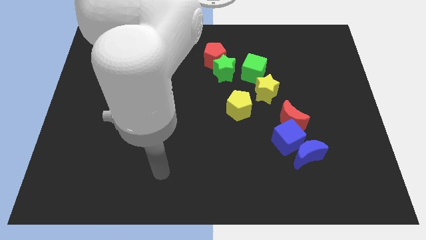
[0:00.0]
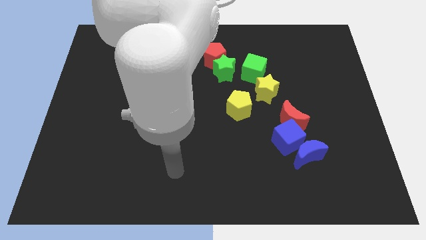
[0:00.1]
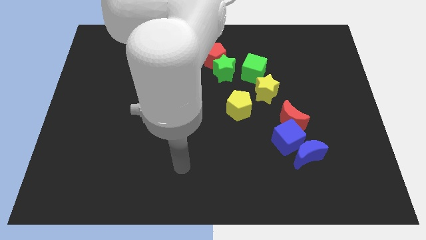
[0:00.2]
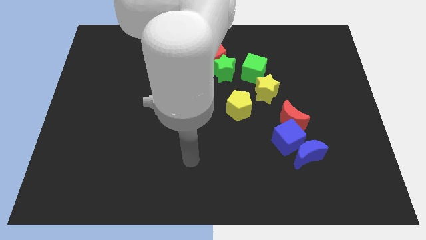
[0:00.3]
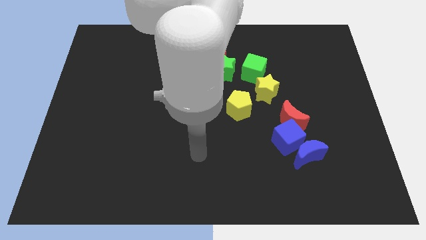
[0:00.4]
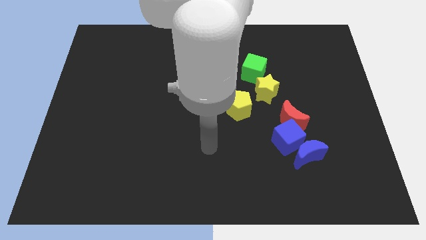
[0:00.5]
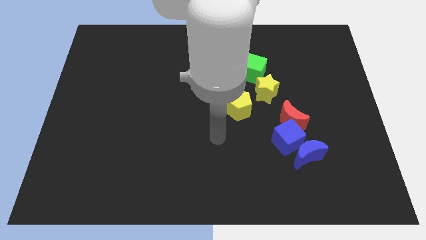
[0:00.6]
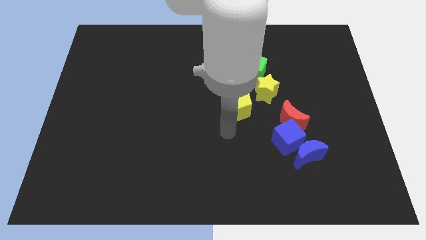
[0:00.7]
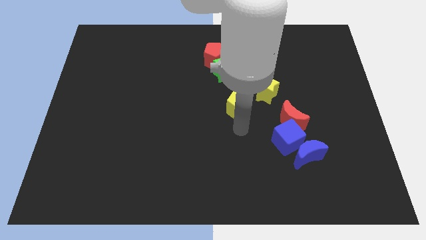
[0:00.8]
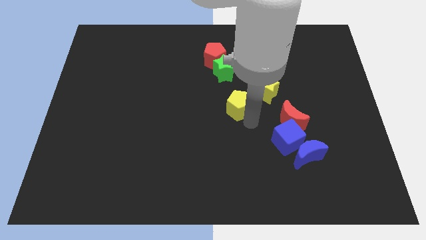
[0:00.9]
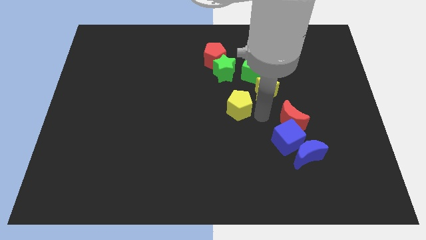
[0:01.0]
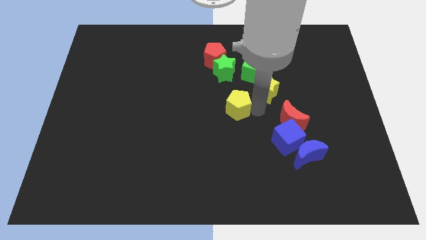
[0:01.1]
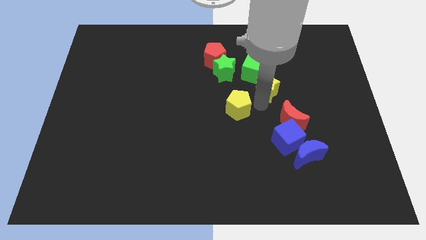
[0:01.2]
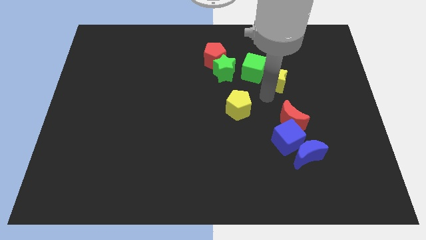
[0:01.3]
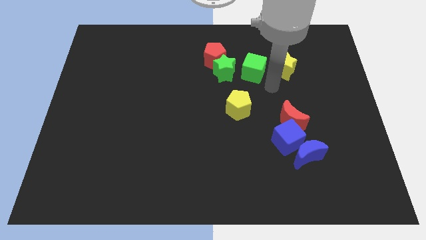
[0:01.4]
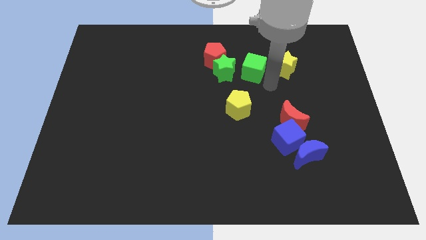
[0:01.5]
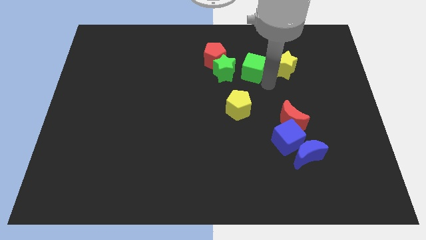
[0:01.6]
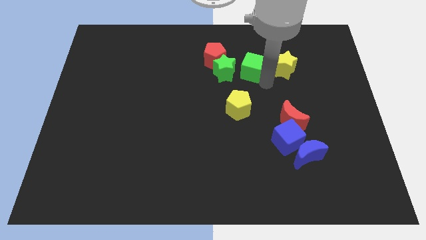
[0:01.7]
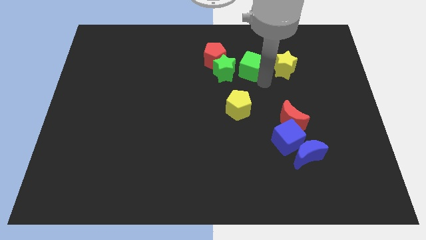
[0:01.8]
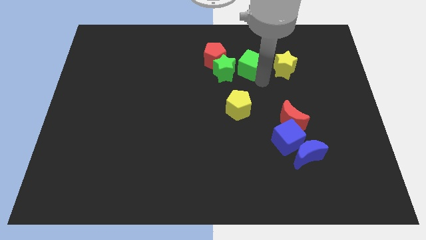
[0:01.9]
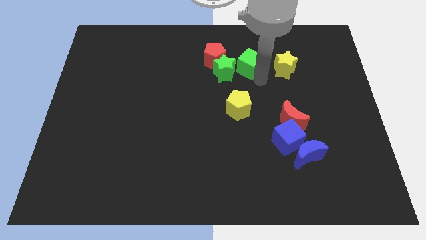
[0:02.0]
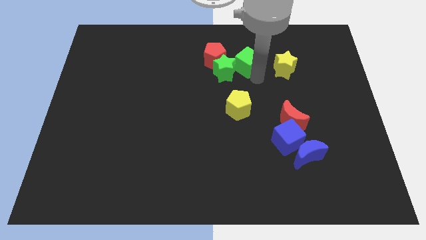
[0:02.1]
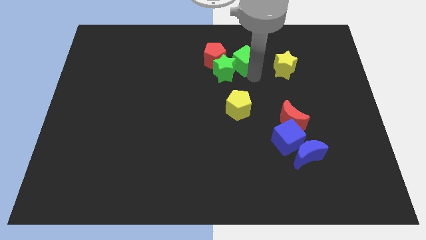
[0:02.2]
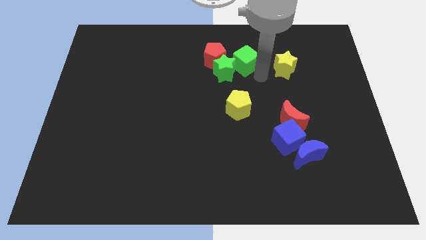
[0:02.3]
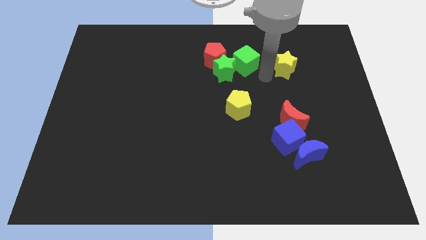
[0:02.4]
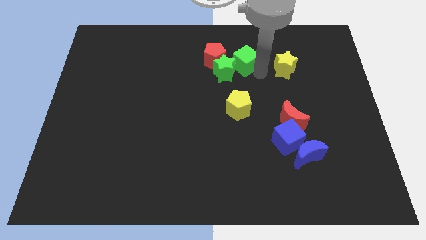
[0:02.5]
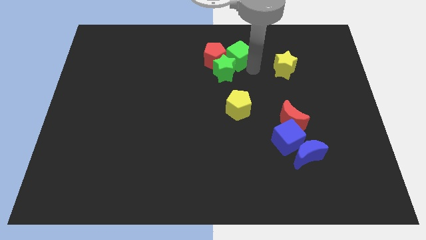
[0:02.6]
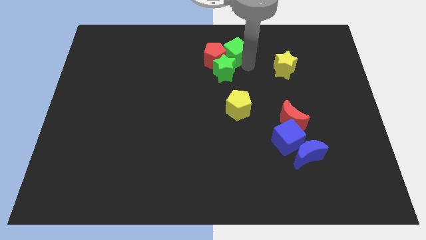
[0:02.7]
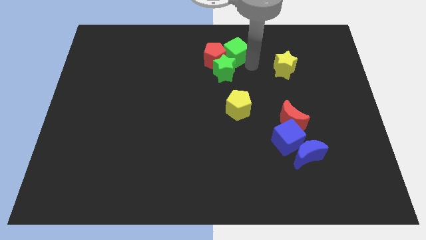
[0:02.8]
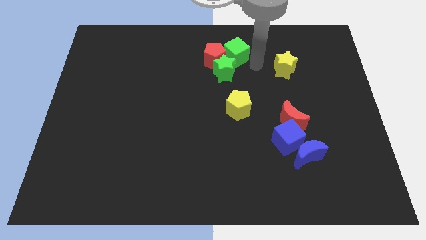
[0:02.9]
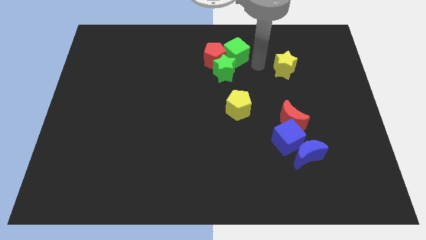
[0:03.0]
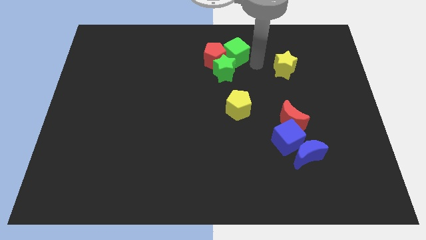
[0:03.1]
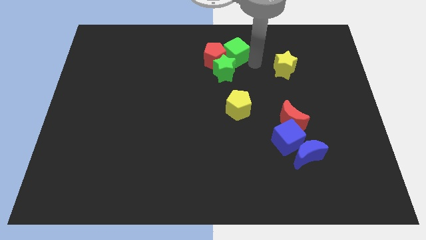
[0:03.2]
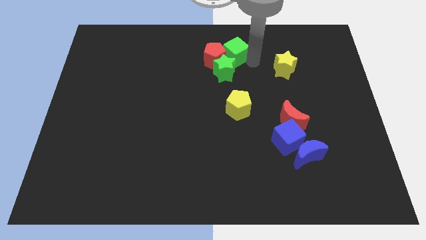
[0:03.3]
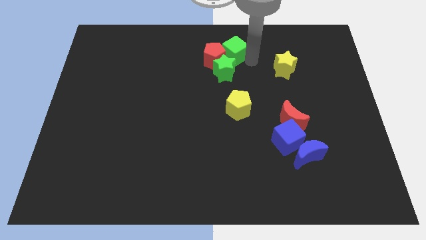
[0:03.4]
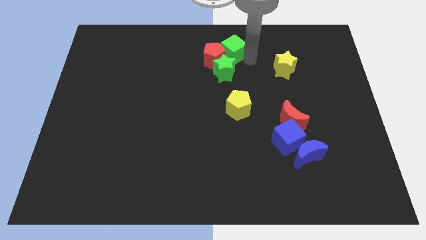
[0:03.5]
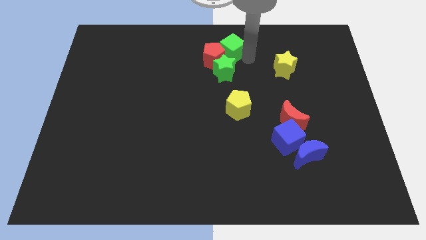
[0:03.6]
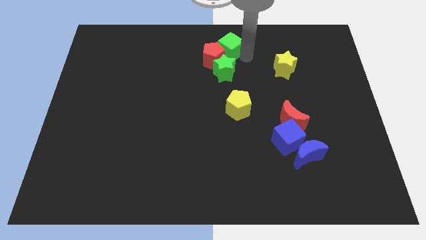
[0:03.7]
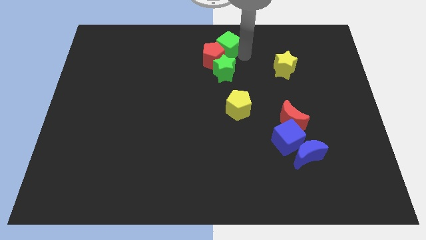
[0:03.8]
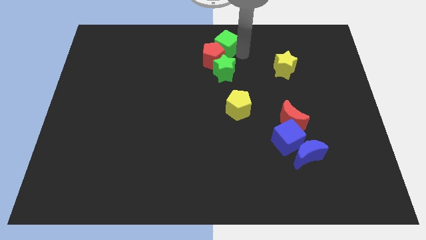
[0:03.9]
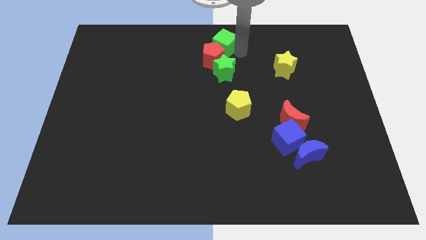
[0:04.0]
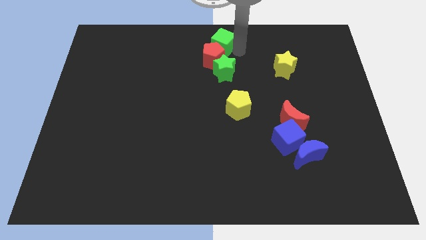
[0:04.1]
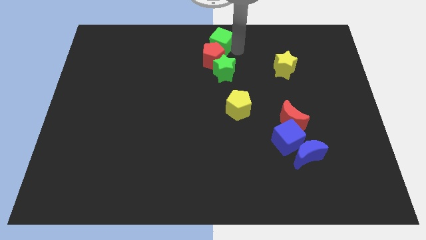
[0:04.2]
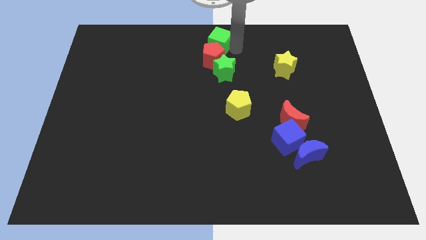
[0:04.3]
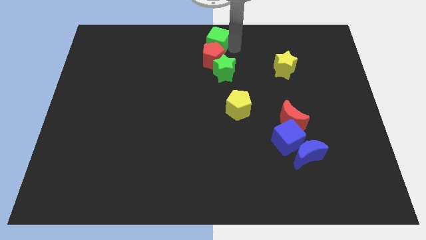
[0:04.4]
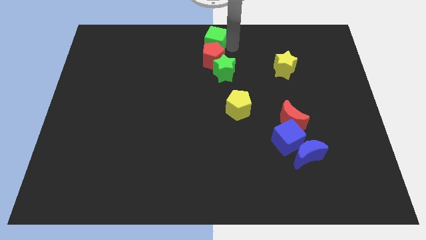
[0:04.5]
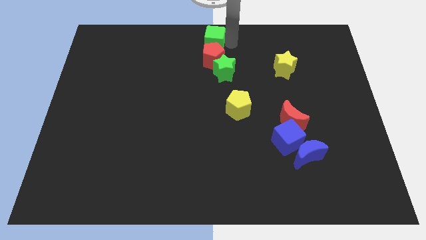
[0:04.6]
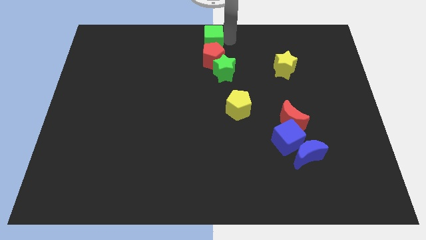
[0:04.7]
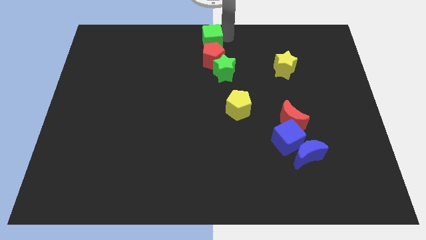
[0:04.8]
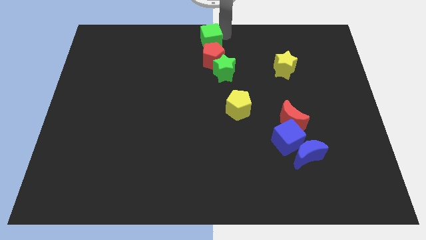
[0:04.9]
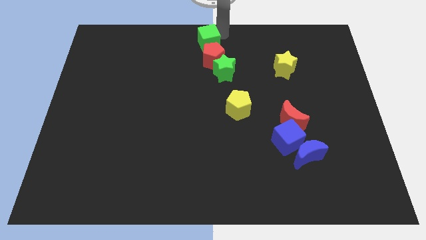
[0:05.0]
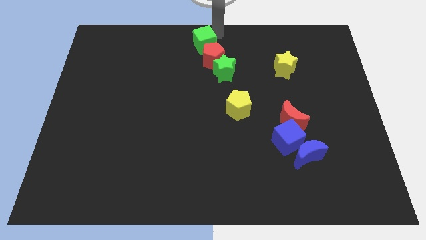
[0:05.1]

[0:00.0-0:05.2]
slide the green cube to the top left side of the green star

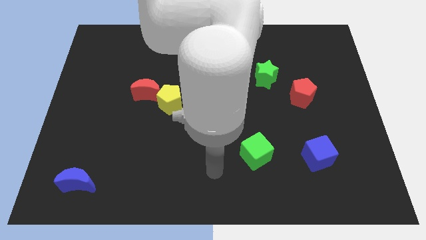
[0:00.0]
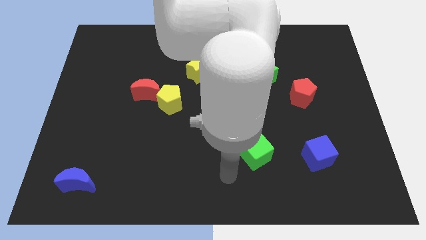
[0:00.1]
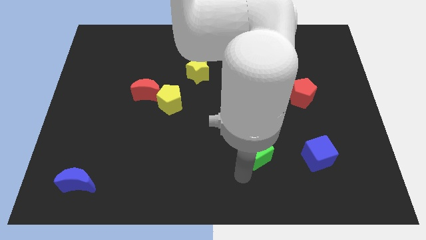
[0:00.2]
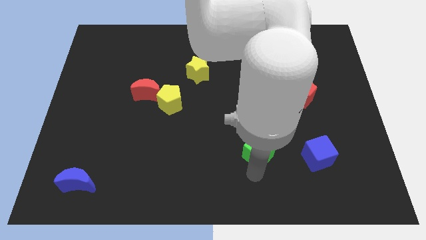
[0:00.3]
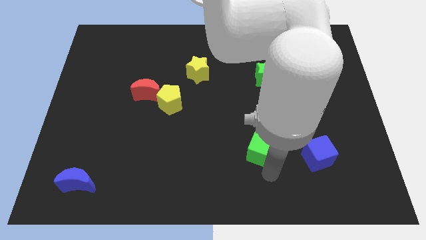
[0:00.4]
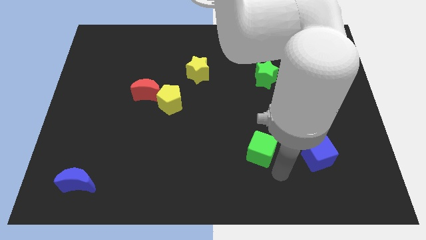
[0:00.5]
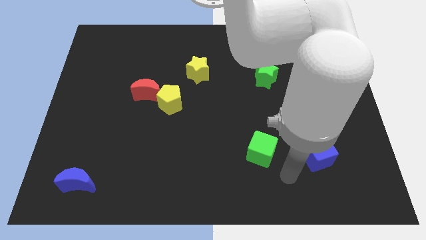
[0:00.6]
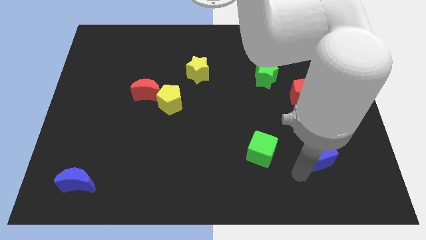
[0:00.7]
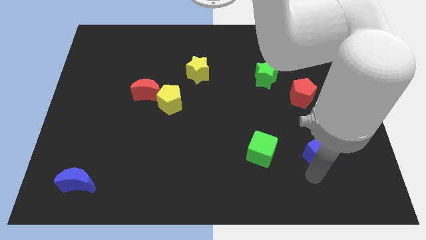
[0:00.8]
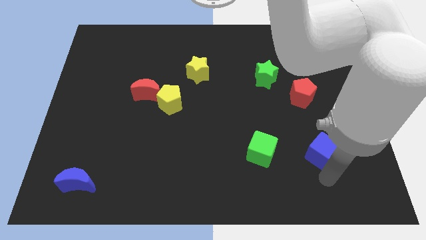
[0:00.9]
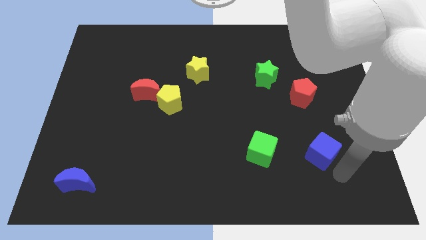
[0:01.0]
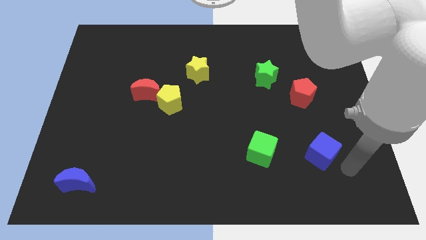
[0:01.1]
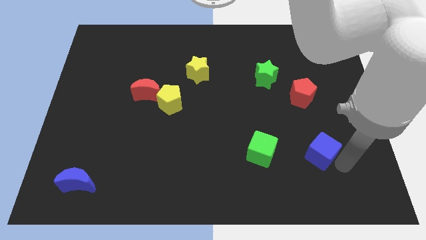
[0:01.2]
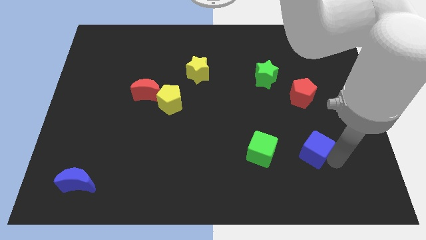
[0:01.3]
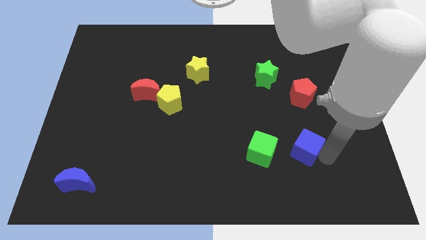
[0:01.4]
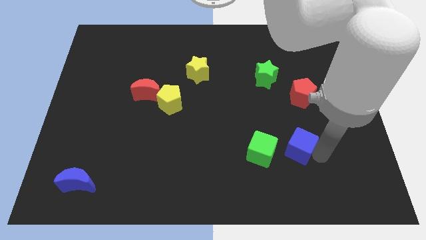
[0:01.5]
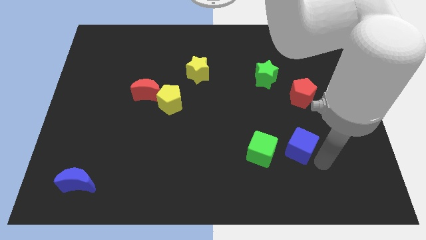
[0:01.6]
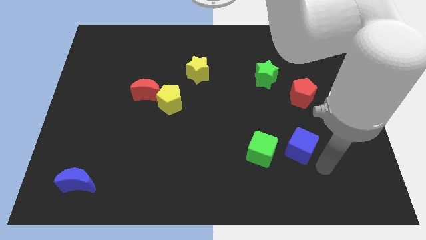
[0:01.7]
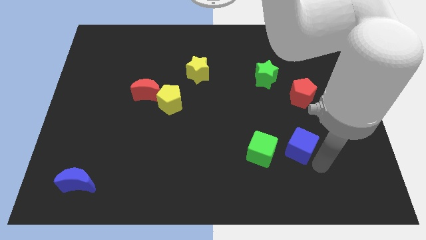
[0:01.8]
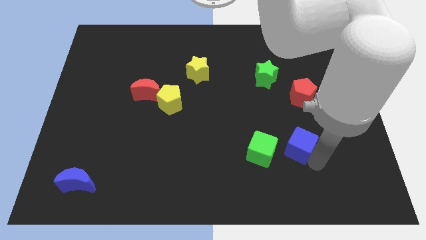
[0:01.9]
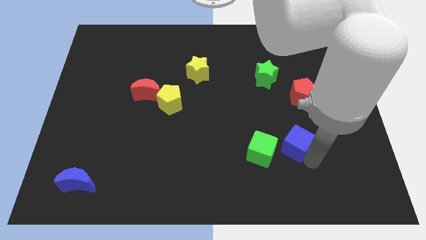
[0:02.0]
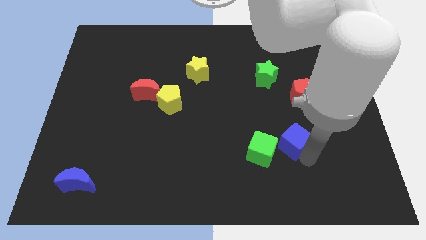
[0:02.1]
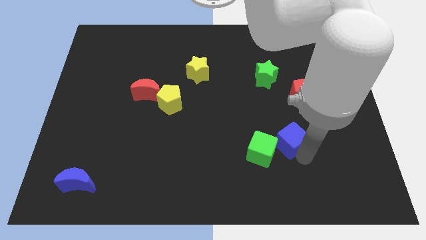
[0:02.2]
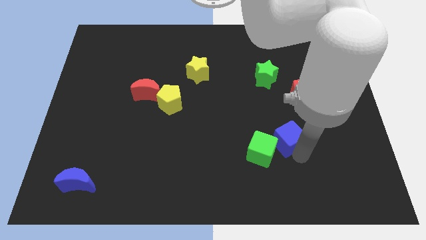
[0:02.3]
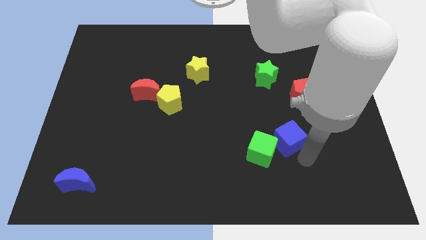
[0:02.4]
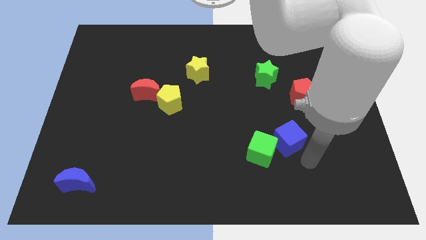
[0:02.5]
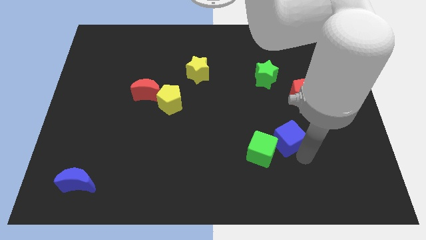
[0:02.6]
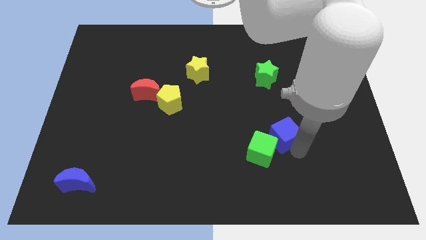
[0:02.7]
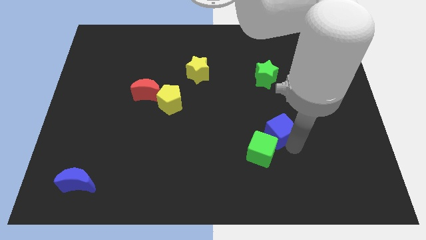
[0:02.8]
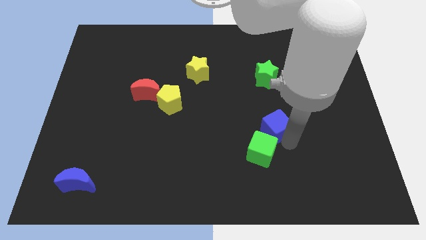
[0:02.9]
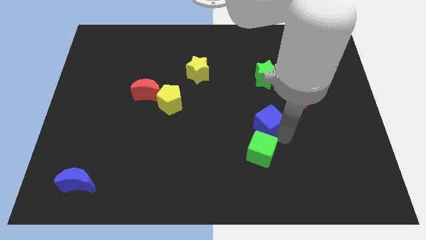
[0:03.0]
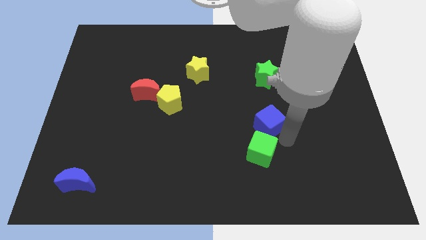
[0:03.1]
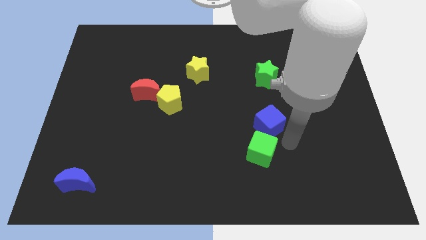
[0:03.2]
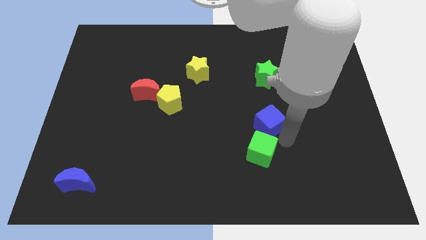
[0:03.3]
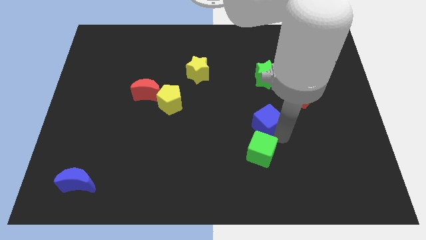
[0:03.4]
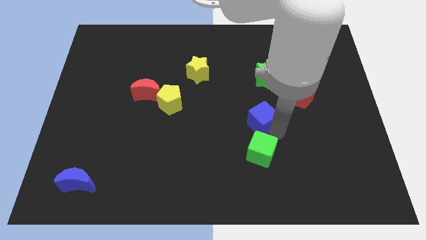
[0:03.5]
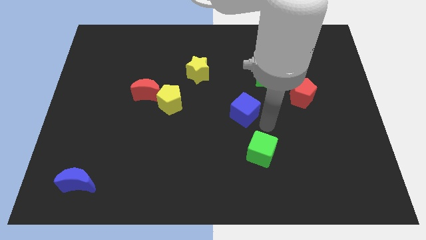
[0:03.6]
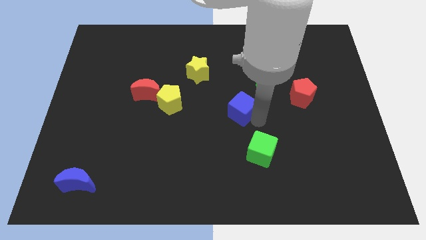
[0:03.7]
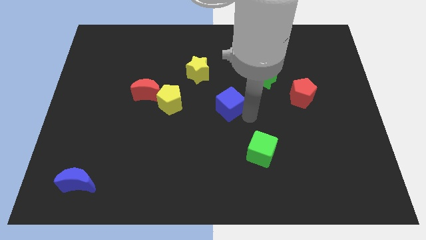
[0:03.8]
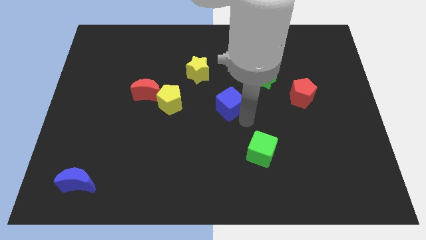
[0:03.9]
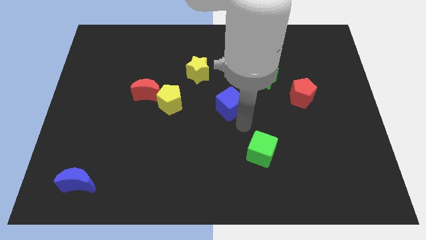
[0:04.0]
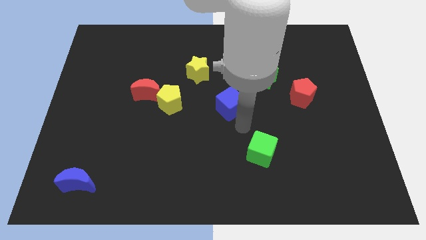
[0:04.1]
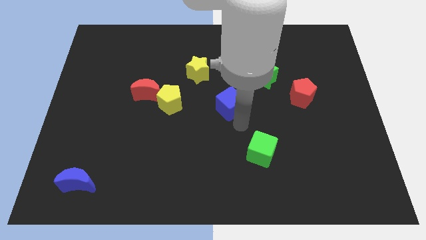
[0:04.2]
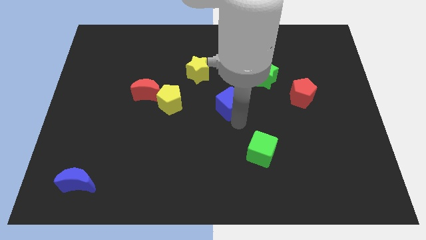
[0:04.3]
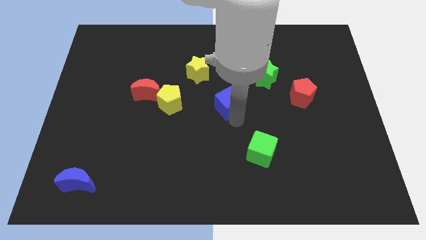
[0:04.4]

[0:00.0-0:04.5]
slide the blue cube to the bottom right of the yellow star
